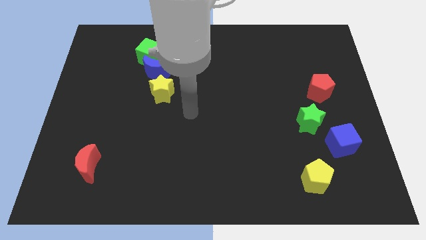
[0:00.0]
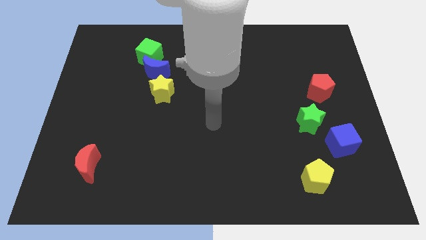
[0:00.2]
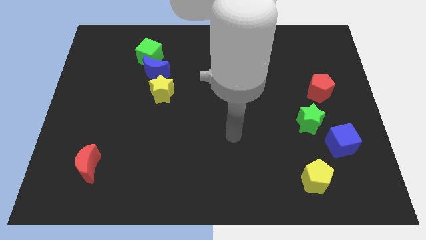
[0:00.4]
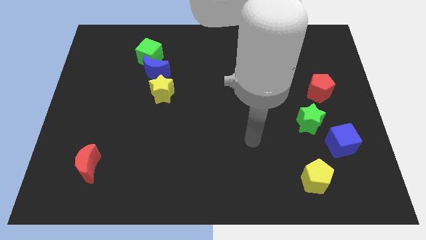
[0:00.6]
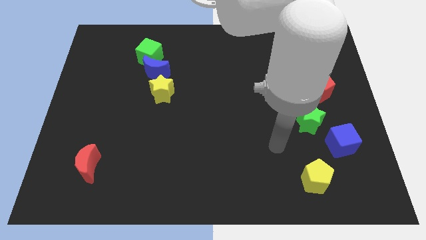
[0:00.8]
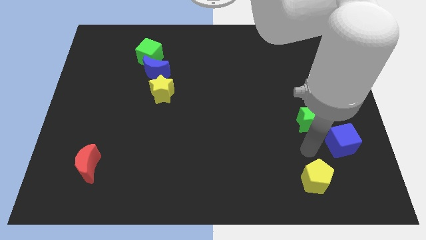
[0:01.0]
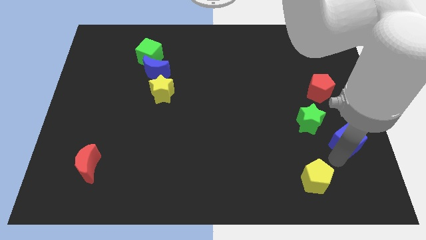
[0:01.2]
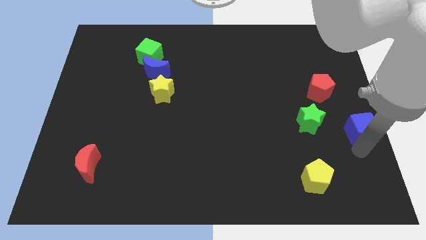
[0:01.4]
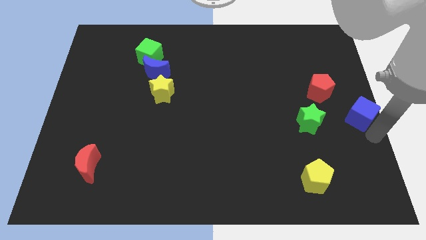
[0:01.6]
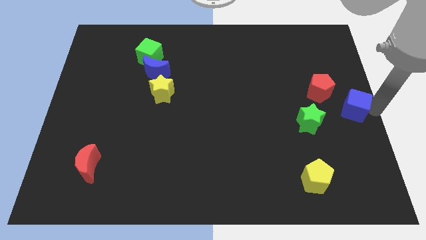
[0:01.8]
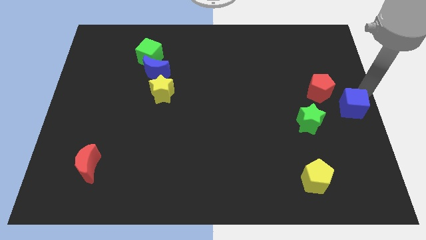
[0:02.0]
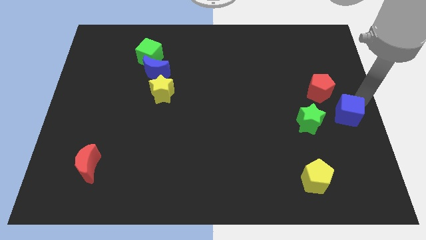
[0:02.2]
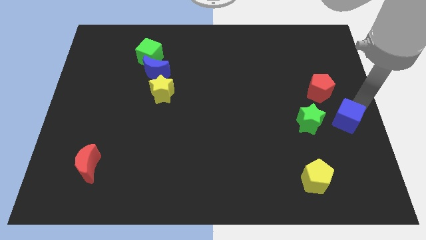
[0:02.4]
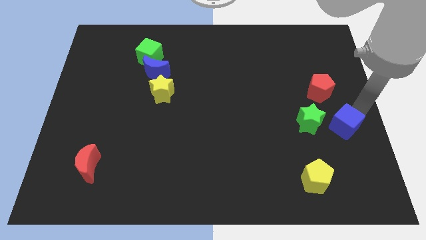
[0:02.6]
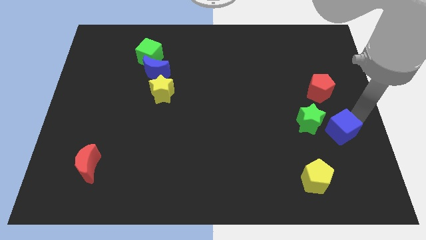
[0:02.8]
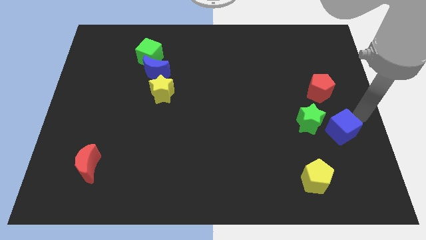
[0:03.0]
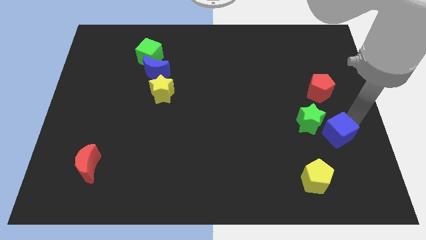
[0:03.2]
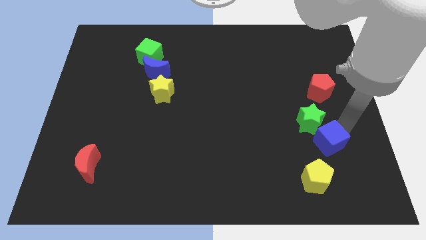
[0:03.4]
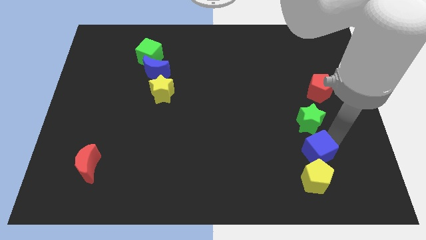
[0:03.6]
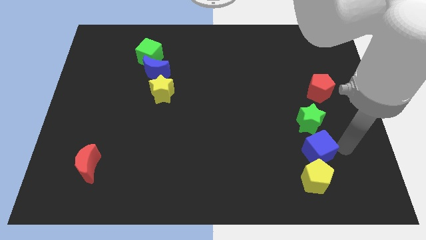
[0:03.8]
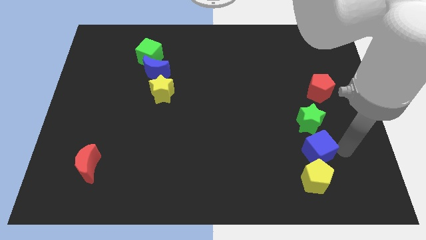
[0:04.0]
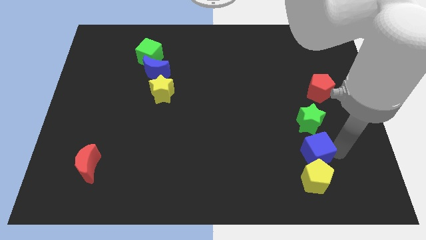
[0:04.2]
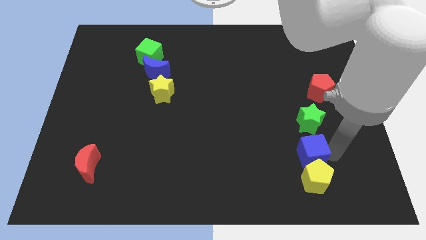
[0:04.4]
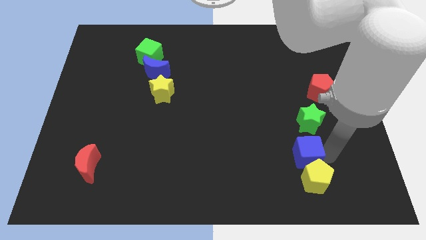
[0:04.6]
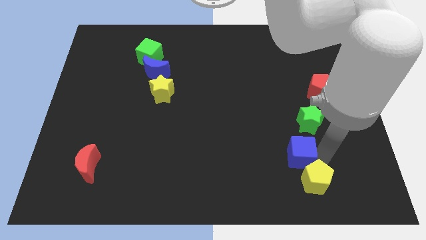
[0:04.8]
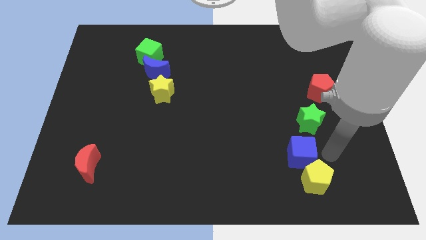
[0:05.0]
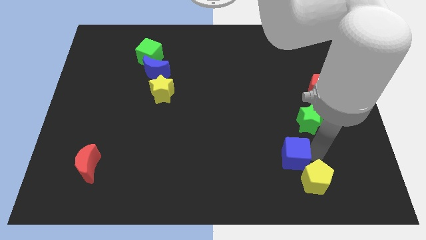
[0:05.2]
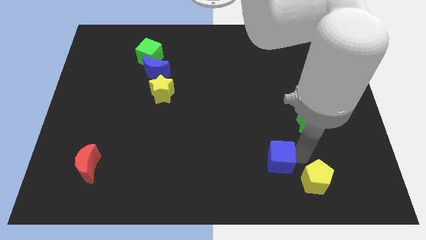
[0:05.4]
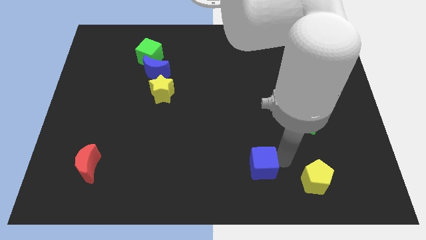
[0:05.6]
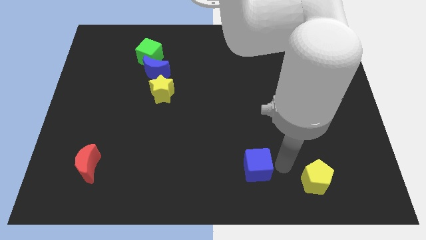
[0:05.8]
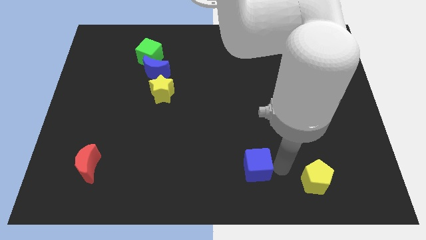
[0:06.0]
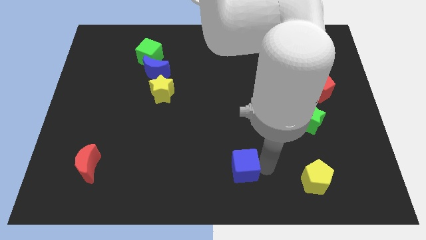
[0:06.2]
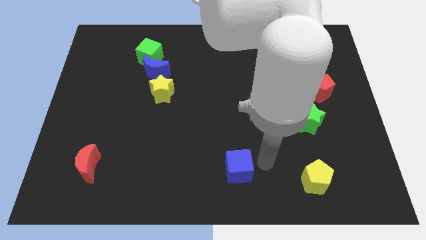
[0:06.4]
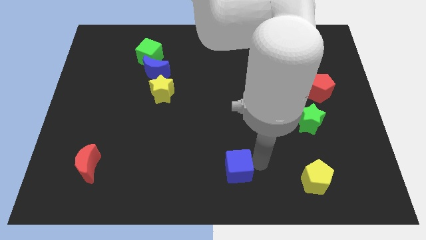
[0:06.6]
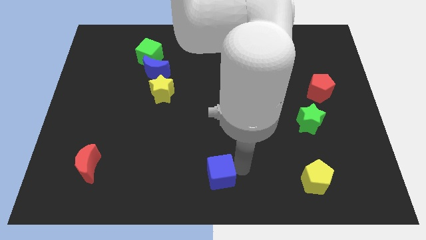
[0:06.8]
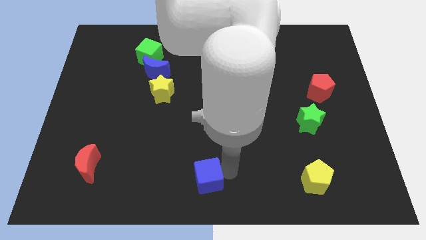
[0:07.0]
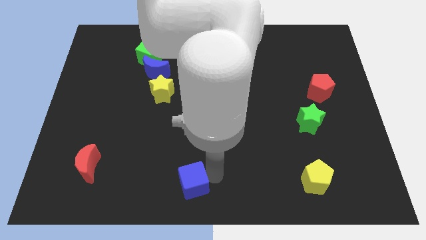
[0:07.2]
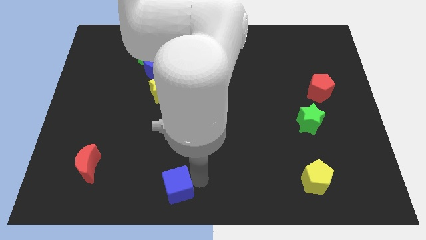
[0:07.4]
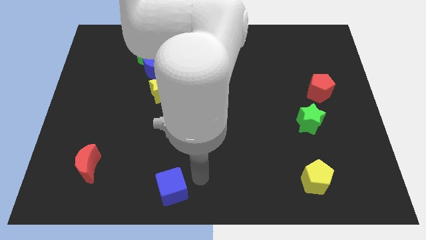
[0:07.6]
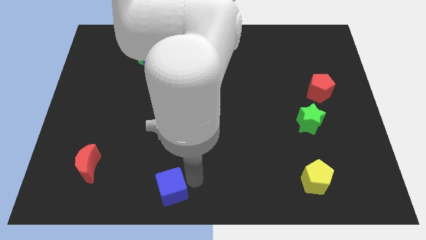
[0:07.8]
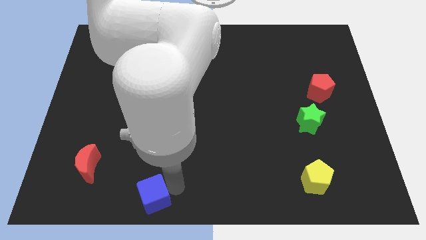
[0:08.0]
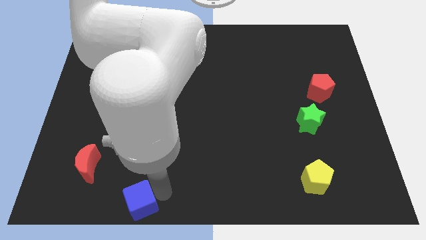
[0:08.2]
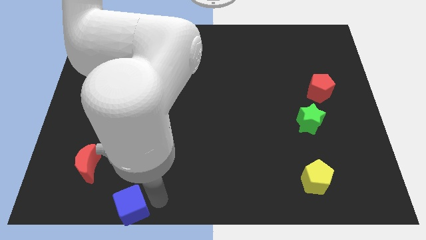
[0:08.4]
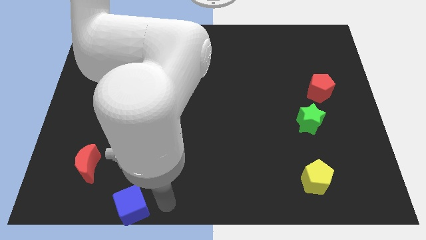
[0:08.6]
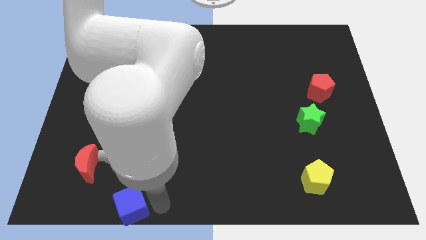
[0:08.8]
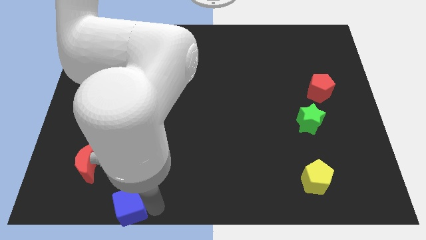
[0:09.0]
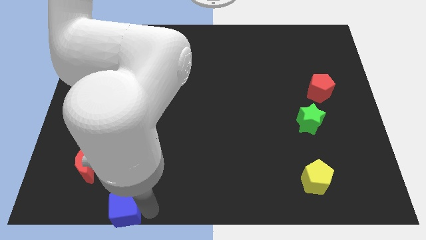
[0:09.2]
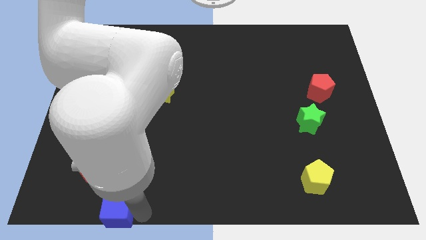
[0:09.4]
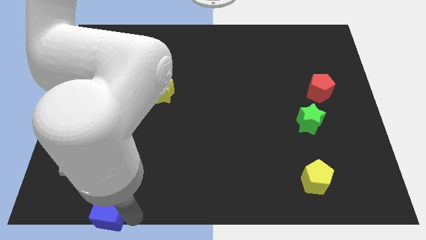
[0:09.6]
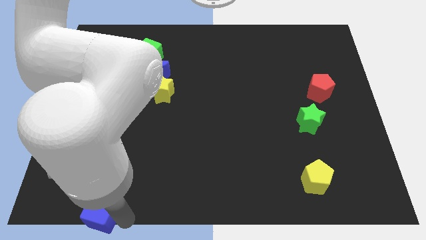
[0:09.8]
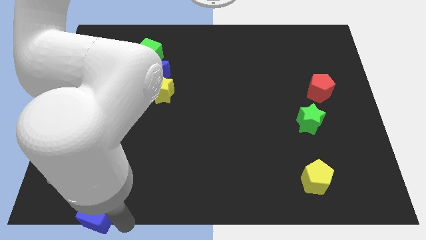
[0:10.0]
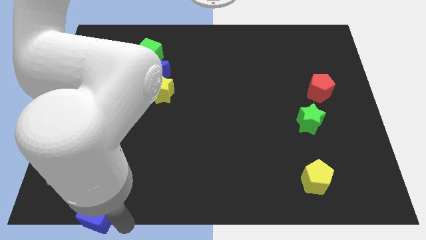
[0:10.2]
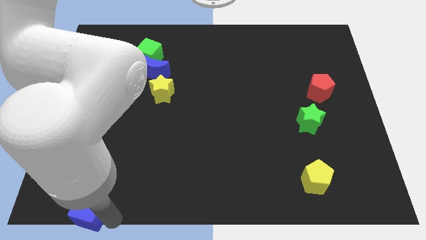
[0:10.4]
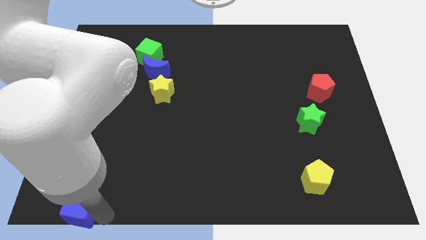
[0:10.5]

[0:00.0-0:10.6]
slide the blue cube to the lower left corner
